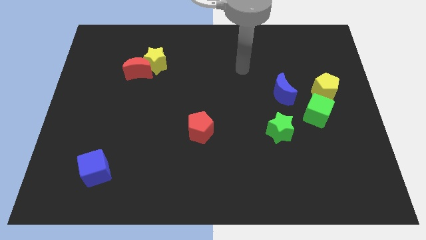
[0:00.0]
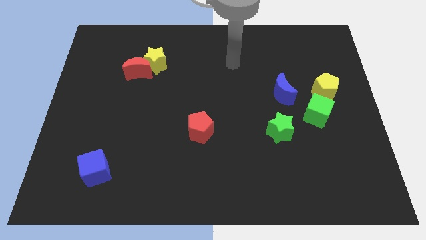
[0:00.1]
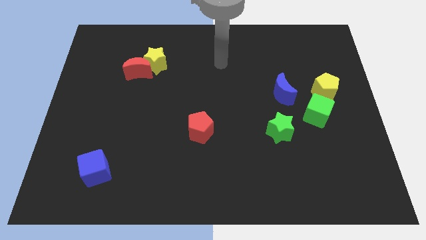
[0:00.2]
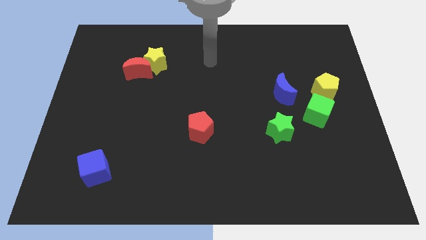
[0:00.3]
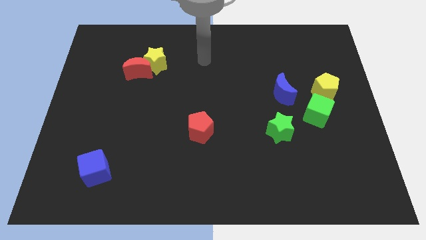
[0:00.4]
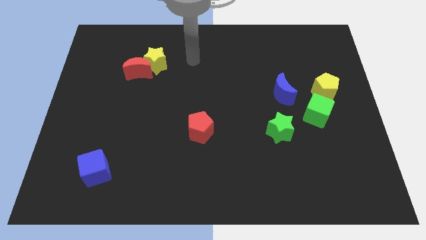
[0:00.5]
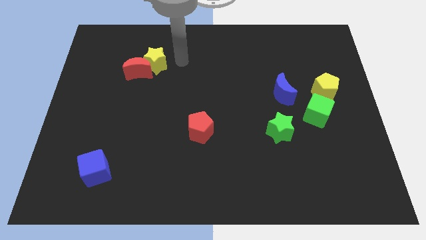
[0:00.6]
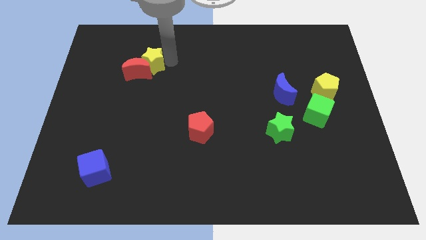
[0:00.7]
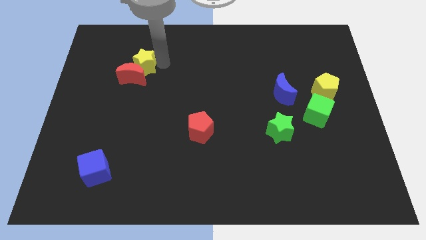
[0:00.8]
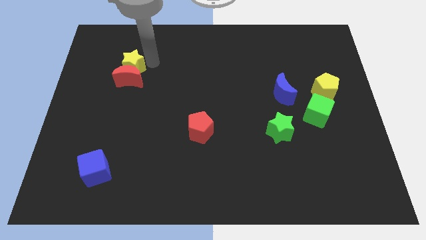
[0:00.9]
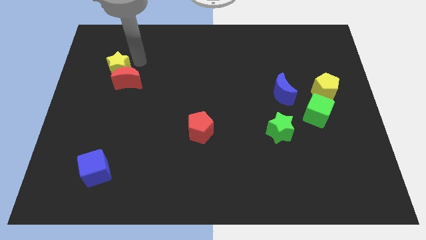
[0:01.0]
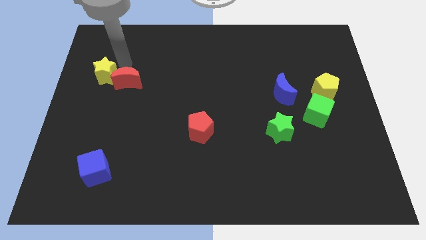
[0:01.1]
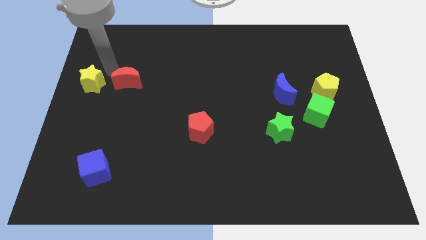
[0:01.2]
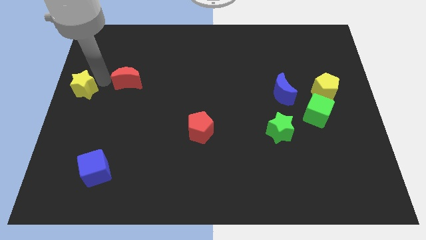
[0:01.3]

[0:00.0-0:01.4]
move the red moon away from the yellow star

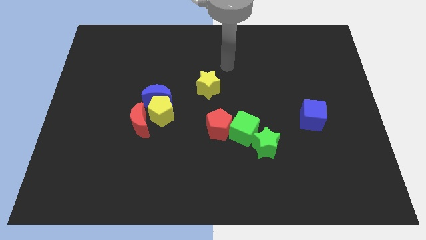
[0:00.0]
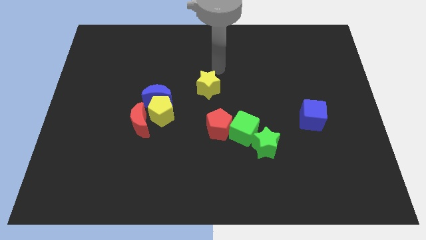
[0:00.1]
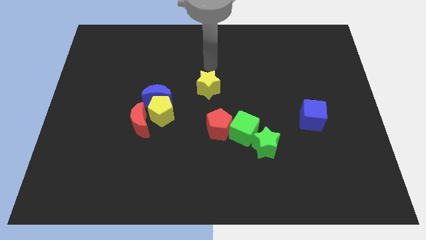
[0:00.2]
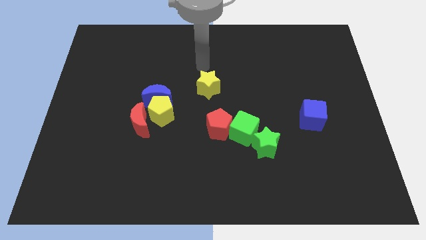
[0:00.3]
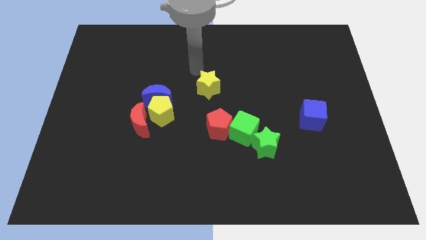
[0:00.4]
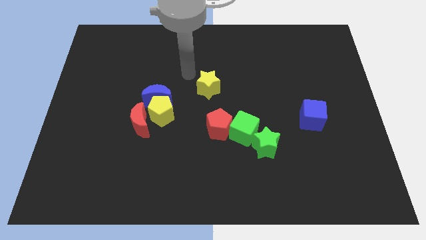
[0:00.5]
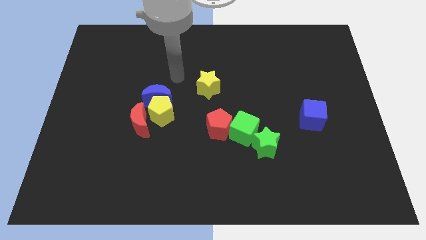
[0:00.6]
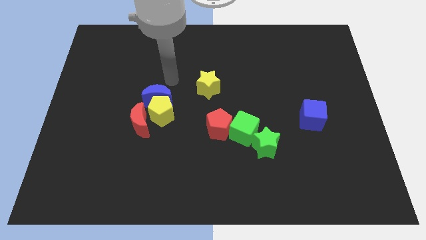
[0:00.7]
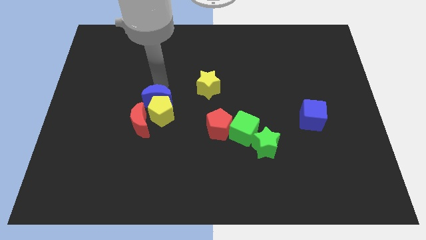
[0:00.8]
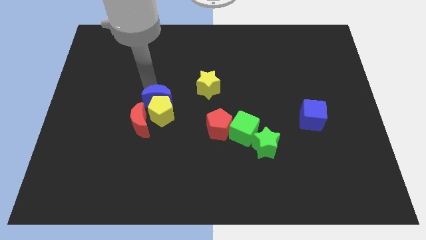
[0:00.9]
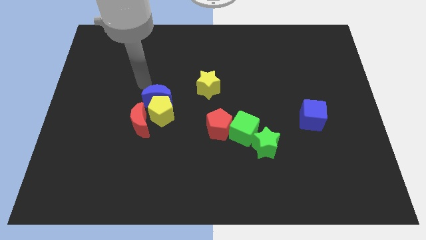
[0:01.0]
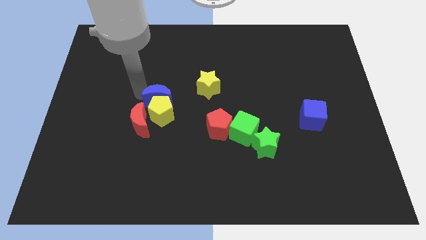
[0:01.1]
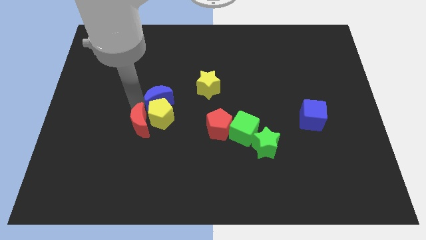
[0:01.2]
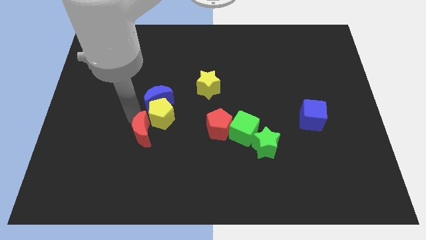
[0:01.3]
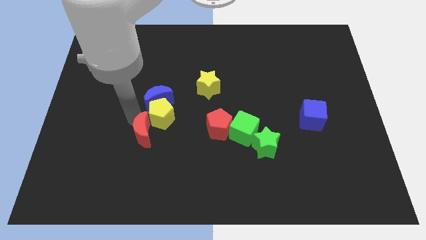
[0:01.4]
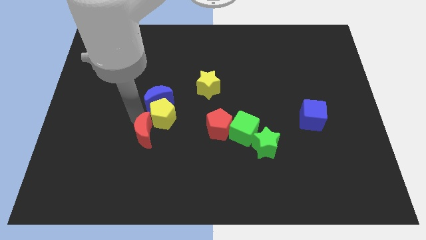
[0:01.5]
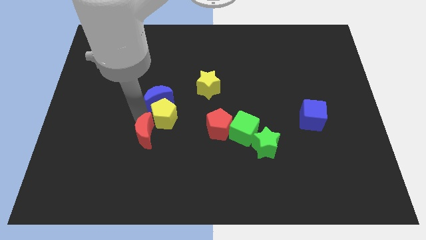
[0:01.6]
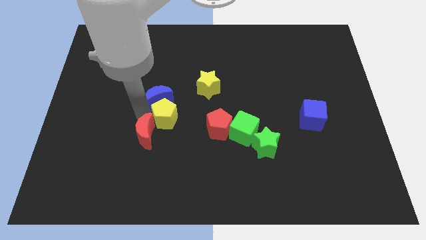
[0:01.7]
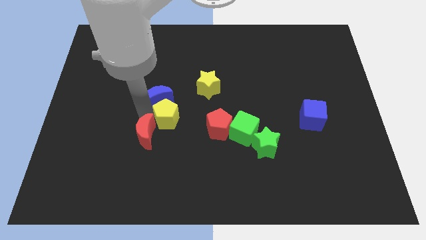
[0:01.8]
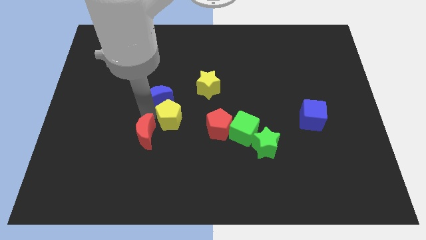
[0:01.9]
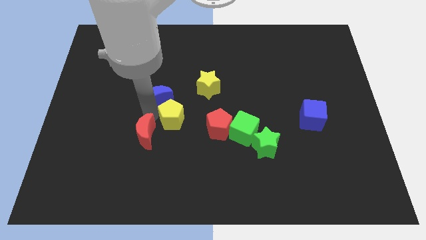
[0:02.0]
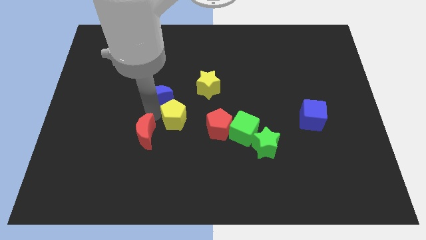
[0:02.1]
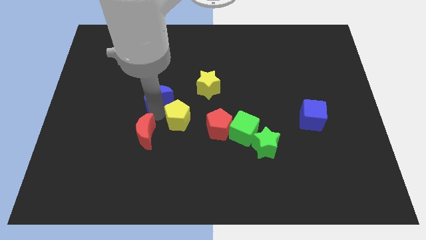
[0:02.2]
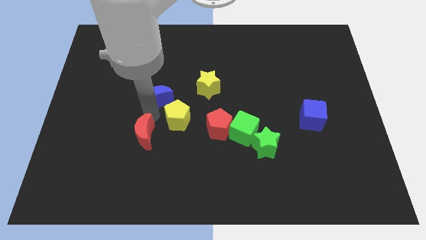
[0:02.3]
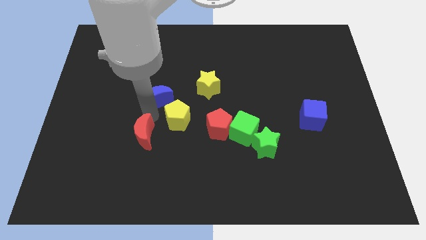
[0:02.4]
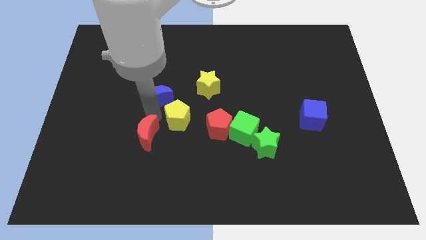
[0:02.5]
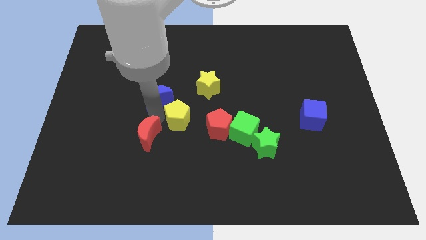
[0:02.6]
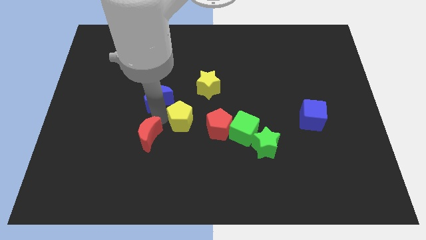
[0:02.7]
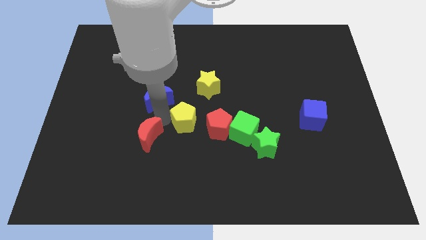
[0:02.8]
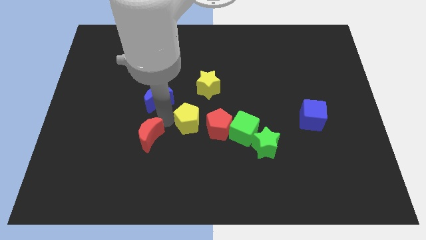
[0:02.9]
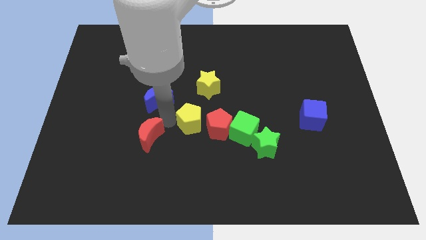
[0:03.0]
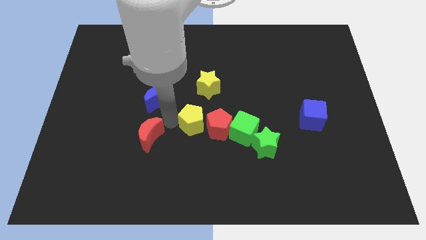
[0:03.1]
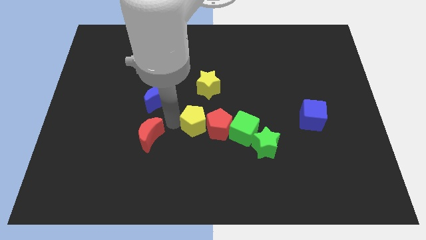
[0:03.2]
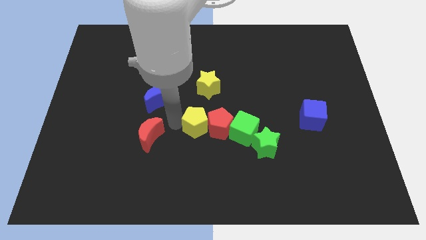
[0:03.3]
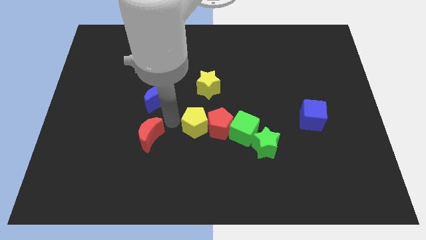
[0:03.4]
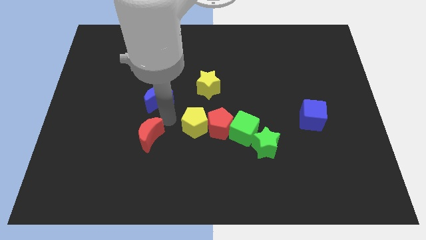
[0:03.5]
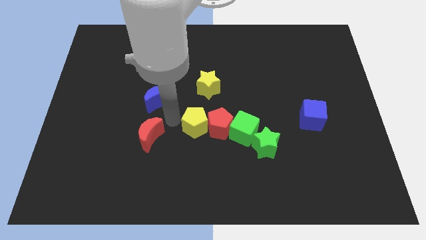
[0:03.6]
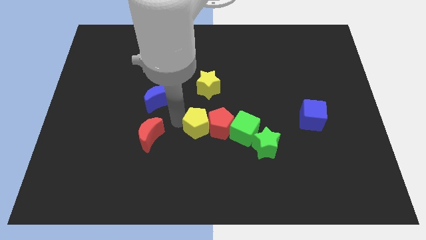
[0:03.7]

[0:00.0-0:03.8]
pull the yellow pentagon apart from the blue moon and red moon

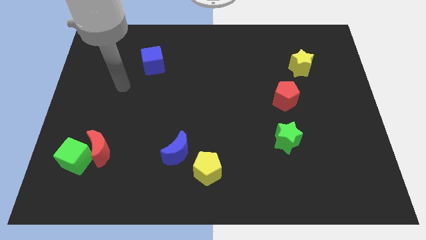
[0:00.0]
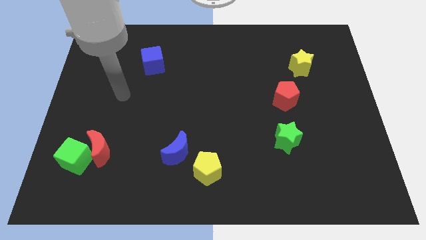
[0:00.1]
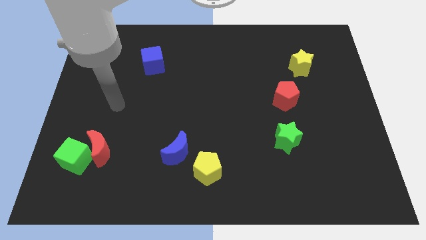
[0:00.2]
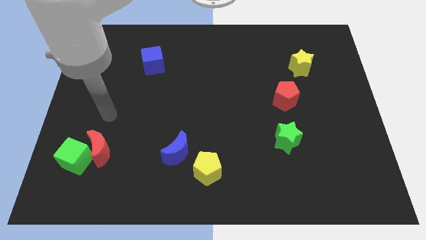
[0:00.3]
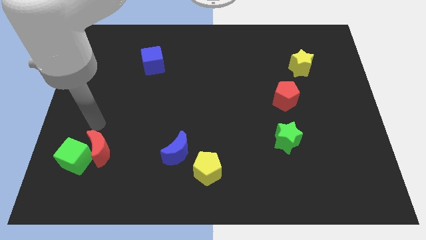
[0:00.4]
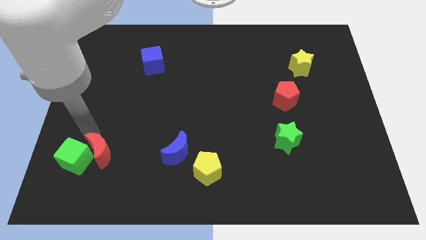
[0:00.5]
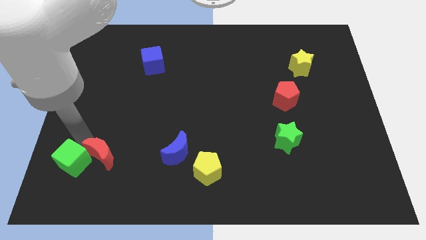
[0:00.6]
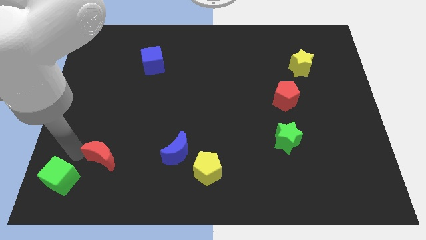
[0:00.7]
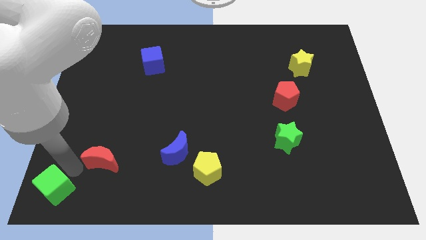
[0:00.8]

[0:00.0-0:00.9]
pull the red moon apart from the green cube

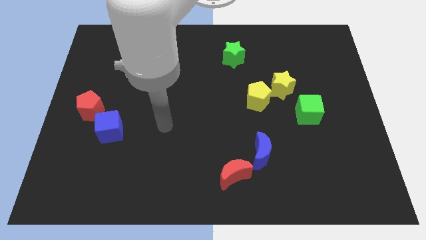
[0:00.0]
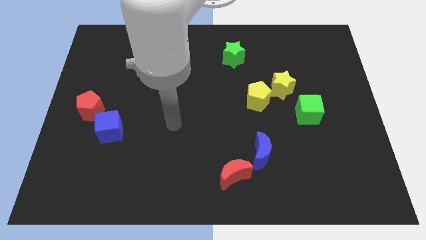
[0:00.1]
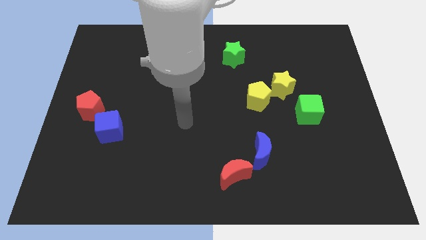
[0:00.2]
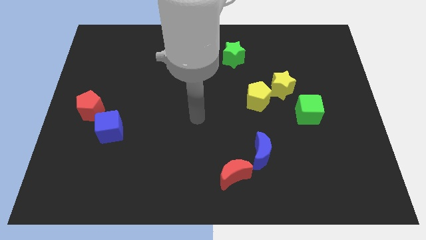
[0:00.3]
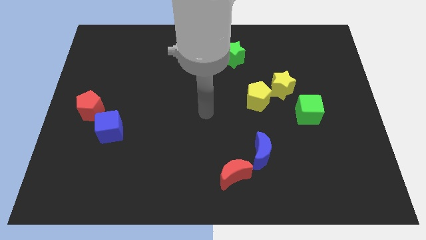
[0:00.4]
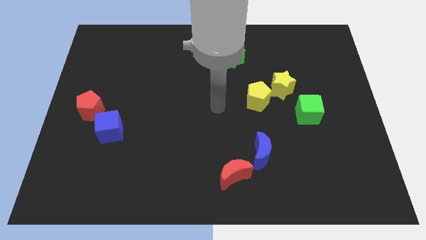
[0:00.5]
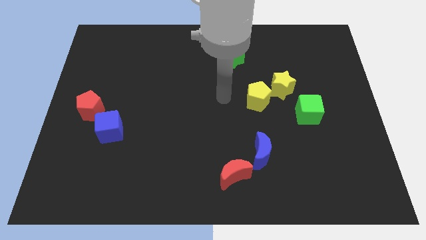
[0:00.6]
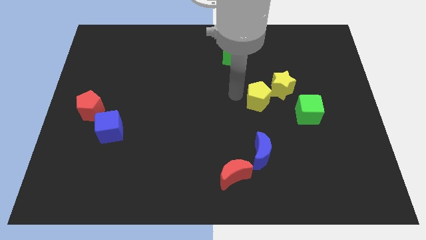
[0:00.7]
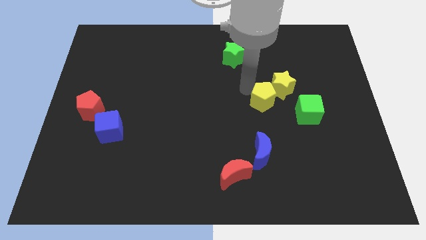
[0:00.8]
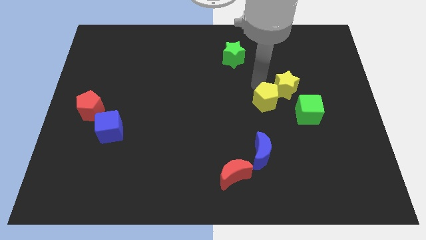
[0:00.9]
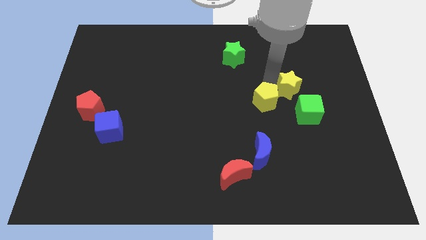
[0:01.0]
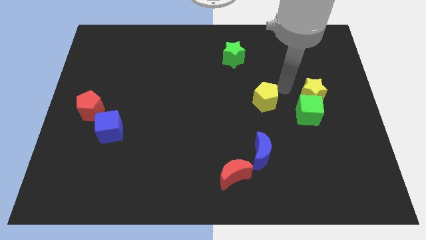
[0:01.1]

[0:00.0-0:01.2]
pull the yellow pentagon apart from the yellow star

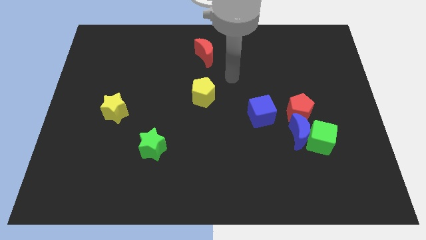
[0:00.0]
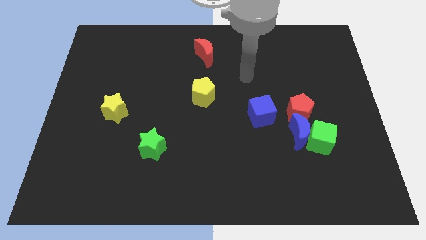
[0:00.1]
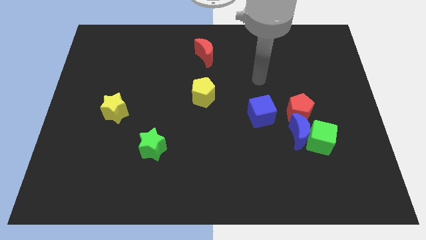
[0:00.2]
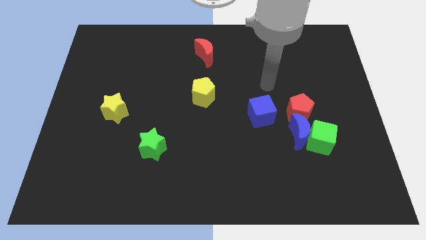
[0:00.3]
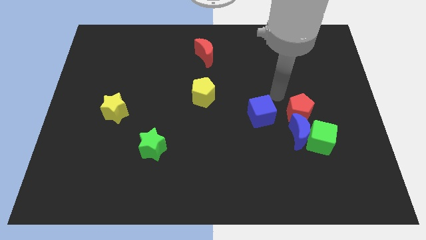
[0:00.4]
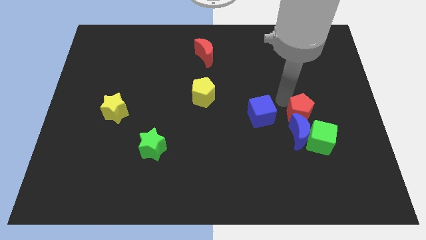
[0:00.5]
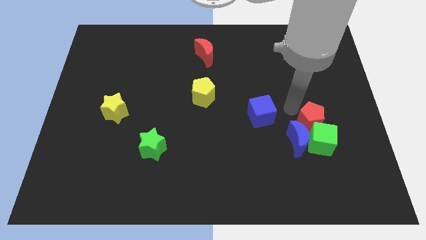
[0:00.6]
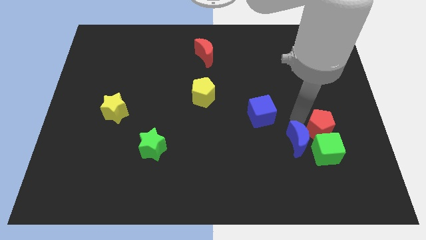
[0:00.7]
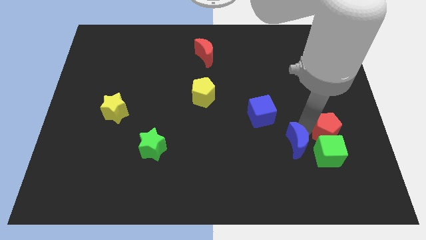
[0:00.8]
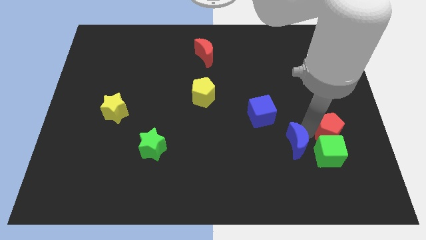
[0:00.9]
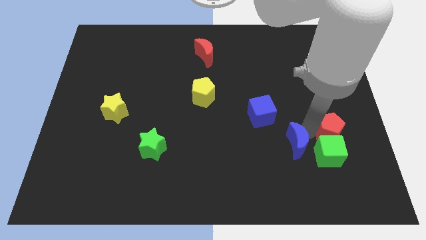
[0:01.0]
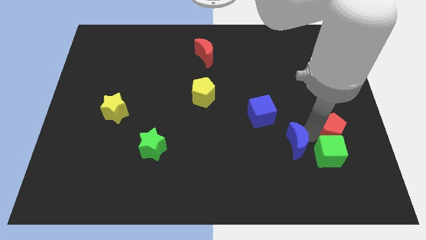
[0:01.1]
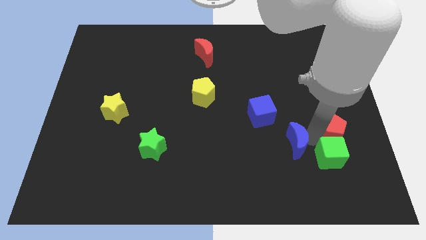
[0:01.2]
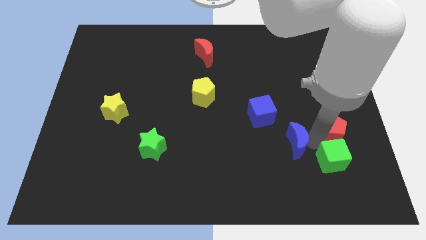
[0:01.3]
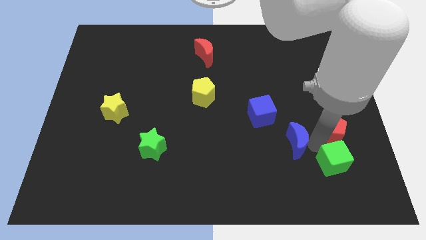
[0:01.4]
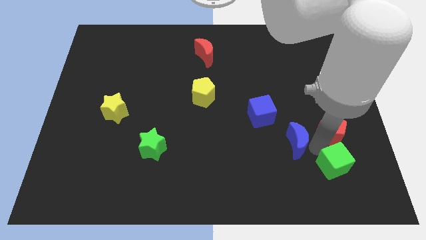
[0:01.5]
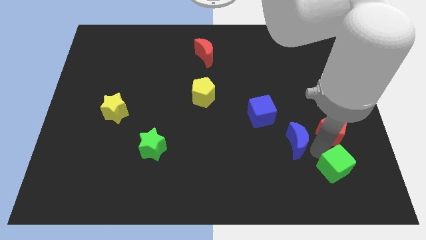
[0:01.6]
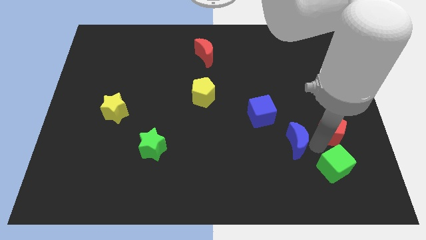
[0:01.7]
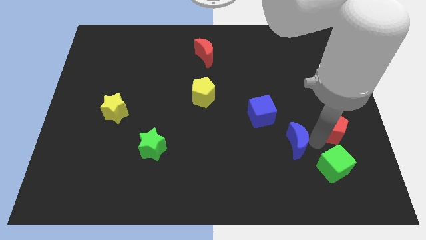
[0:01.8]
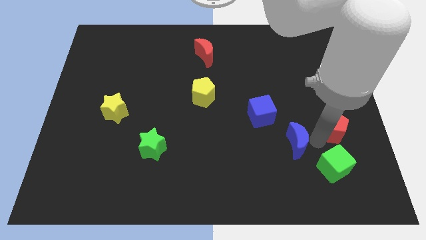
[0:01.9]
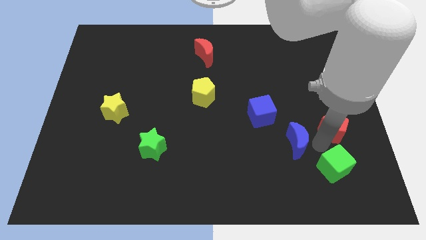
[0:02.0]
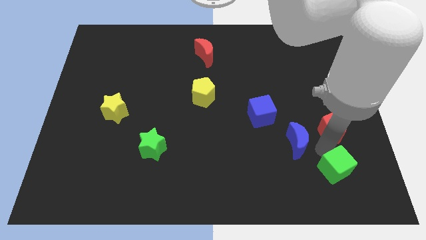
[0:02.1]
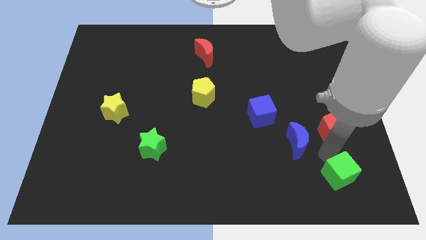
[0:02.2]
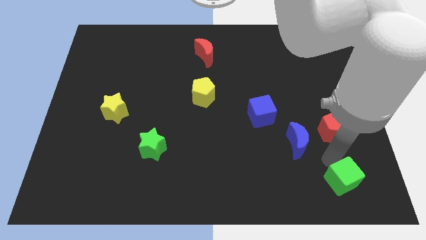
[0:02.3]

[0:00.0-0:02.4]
pull the green cube apart from the blue moon and red pentagon
